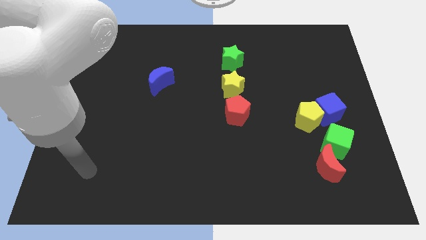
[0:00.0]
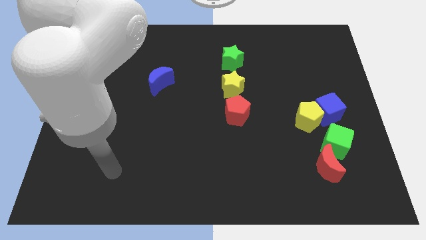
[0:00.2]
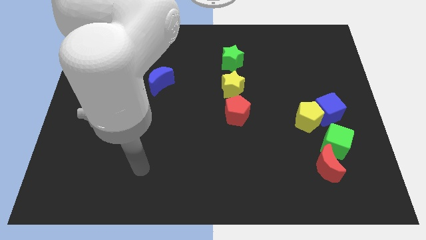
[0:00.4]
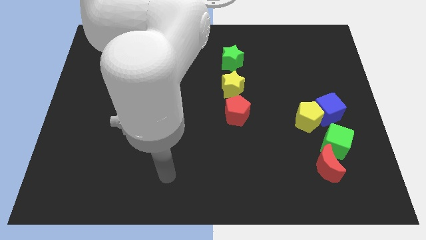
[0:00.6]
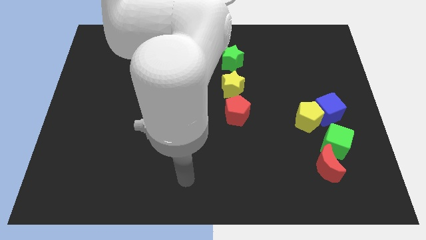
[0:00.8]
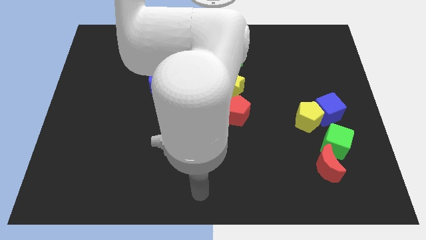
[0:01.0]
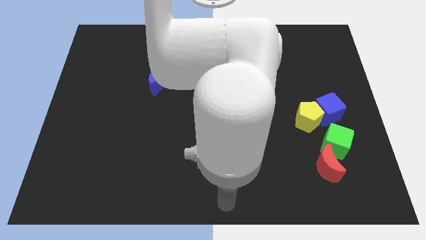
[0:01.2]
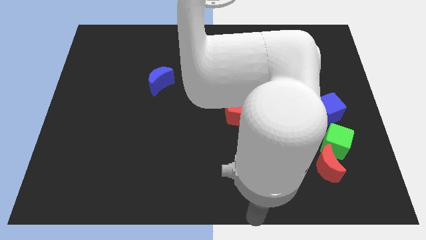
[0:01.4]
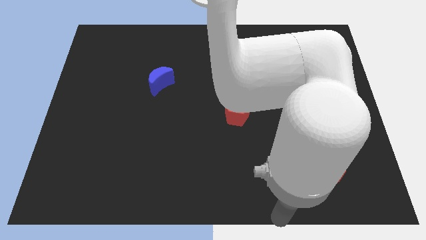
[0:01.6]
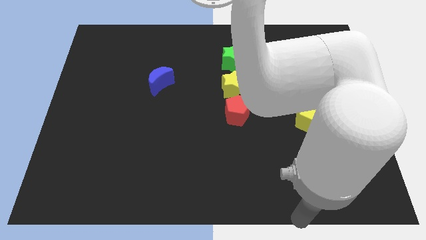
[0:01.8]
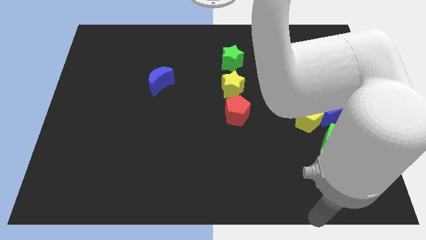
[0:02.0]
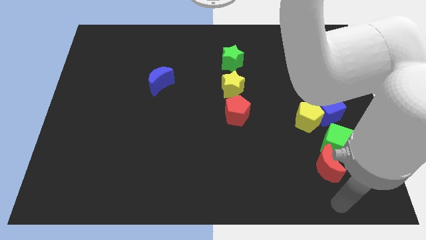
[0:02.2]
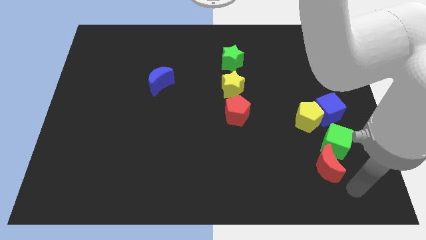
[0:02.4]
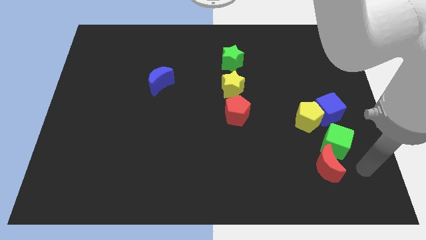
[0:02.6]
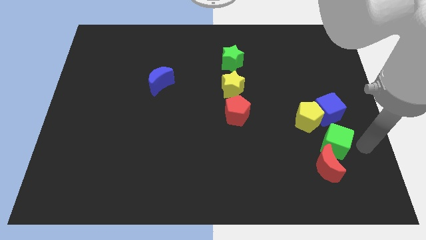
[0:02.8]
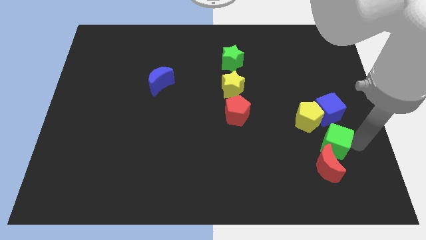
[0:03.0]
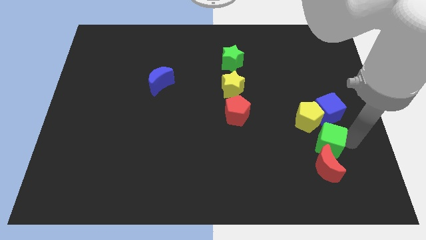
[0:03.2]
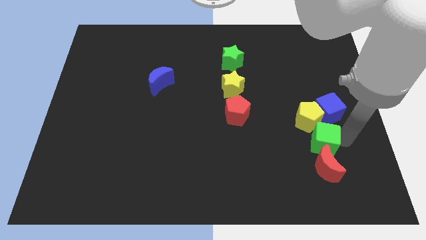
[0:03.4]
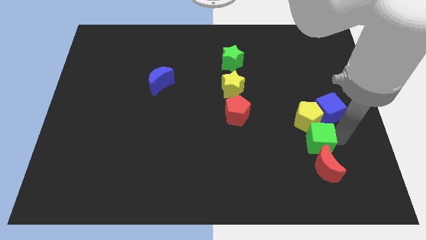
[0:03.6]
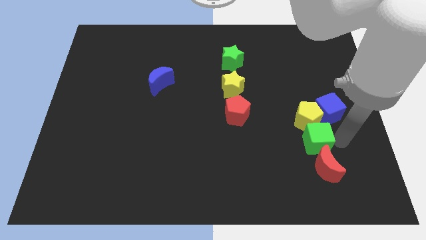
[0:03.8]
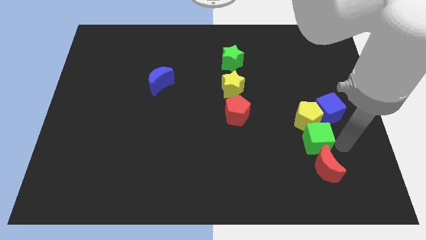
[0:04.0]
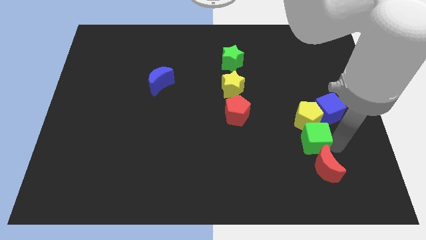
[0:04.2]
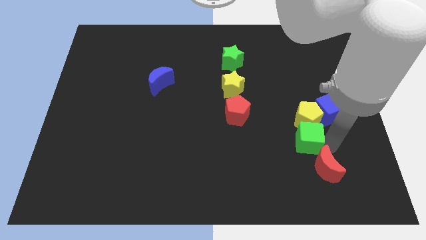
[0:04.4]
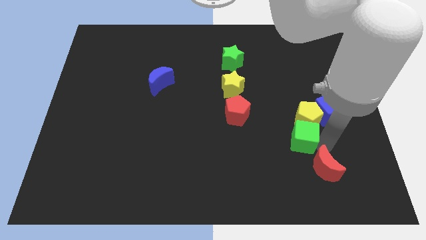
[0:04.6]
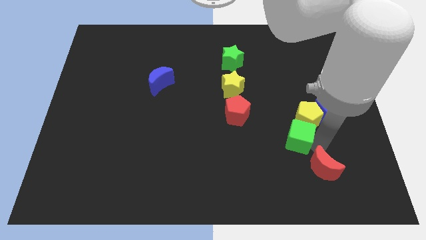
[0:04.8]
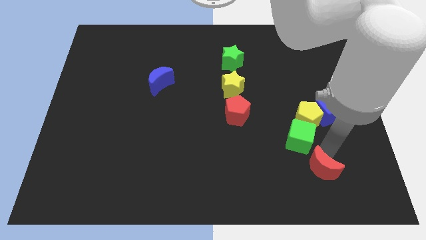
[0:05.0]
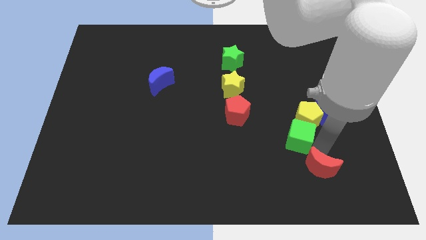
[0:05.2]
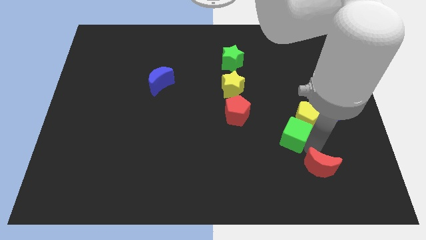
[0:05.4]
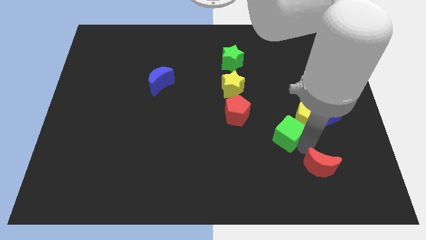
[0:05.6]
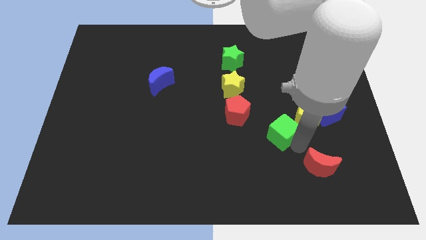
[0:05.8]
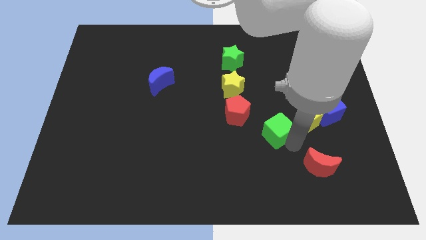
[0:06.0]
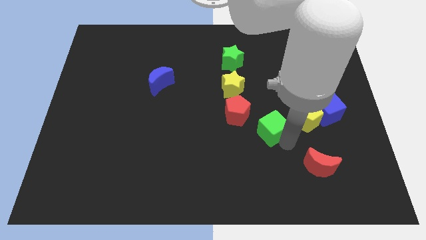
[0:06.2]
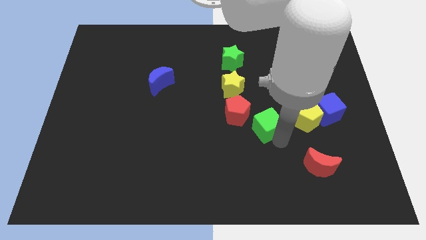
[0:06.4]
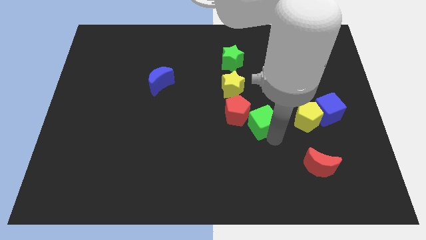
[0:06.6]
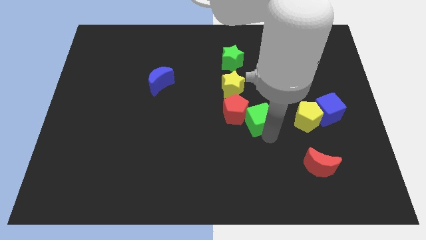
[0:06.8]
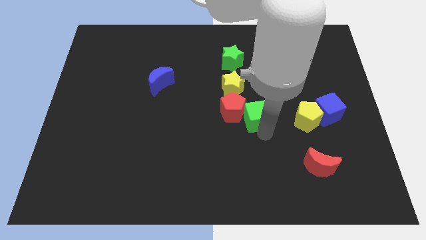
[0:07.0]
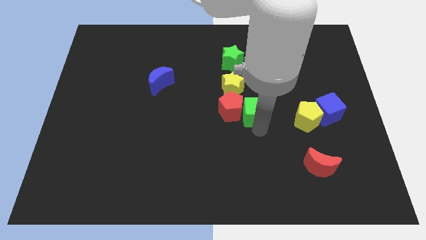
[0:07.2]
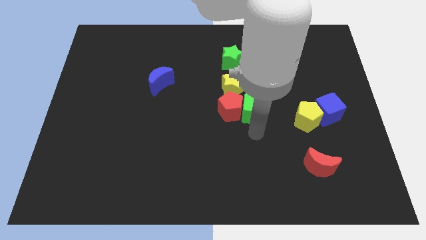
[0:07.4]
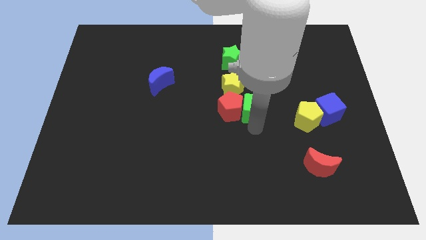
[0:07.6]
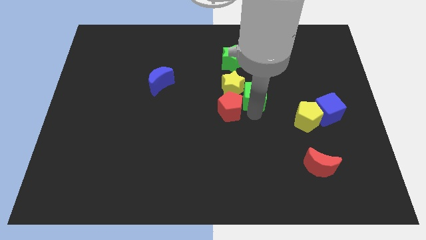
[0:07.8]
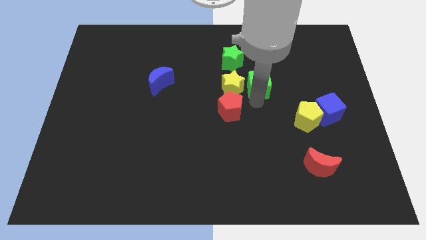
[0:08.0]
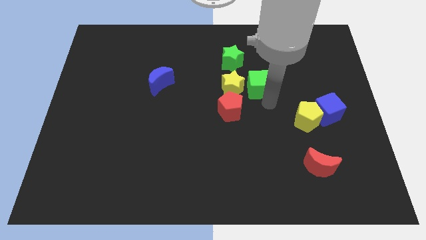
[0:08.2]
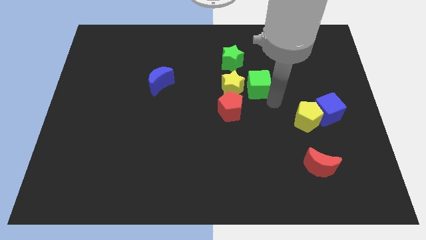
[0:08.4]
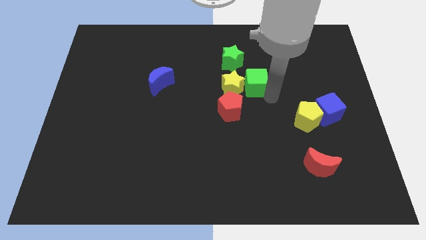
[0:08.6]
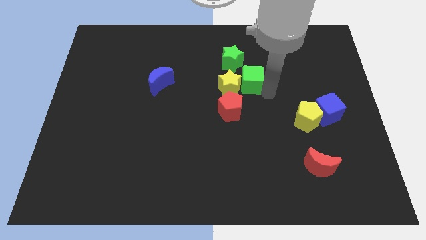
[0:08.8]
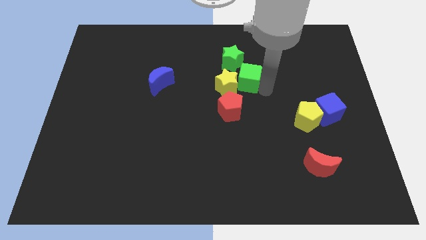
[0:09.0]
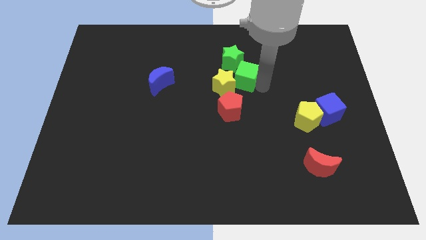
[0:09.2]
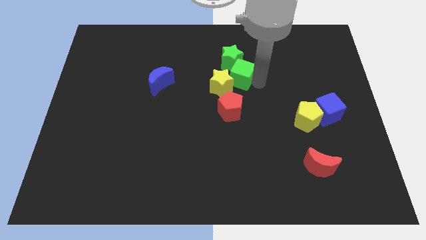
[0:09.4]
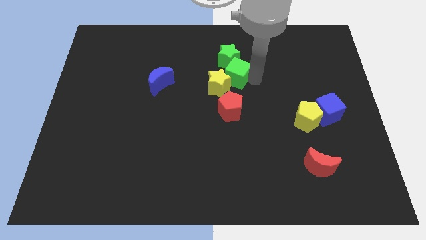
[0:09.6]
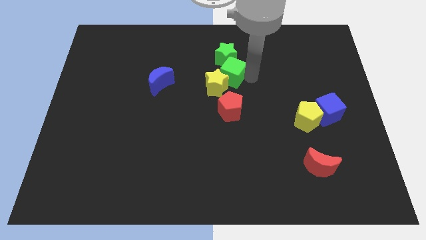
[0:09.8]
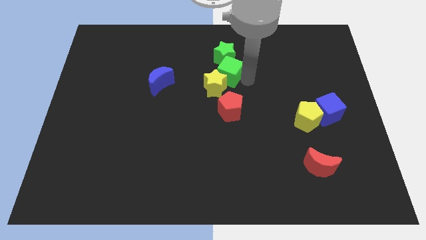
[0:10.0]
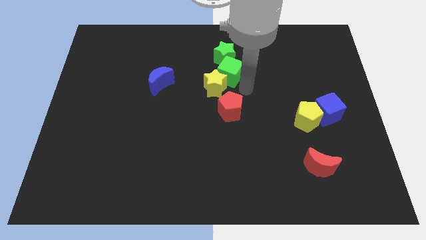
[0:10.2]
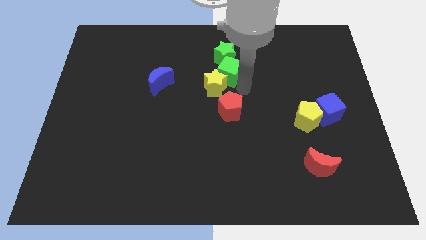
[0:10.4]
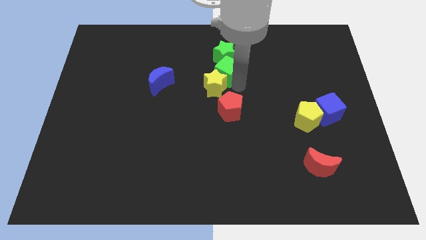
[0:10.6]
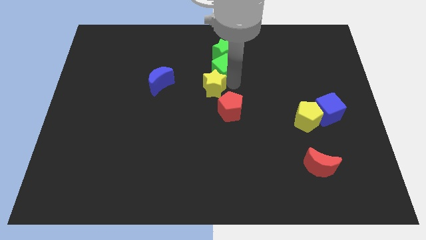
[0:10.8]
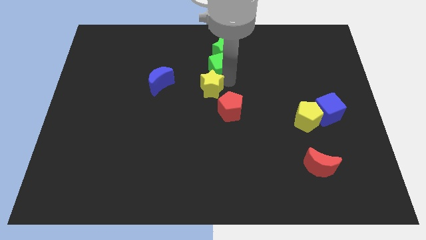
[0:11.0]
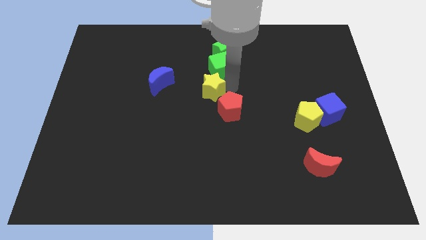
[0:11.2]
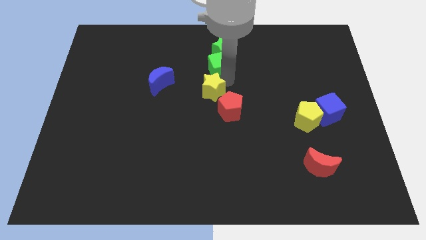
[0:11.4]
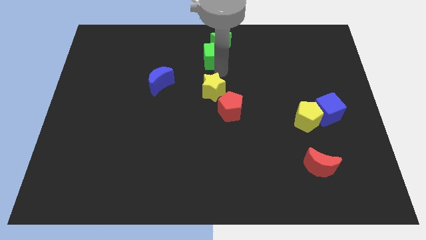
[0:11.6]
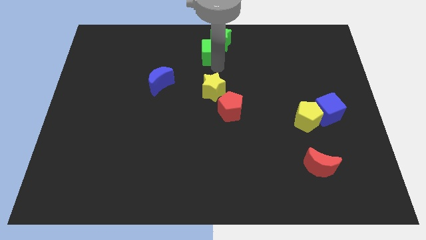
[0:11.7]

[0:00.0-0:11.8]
move the green cube to the top

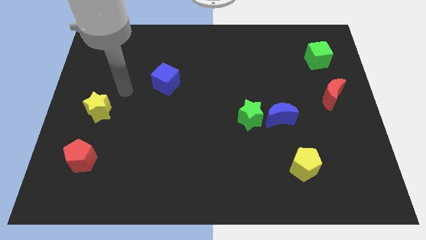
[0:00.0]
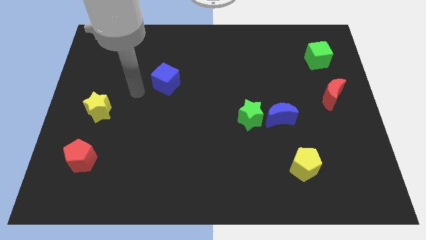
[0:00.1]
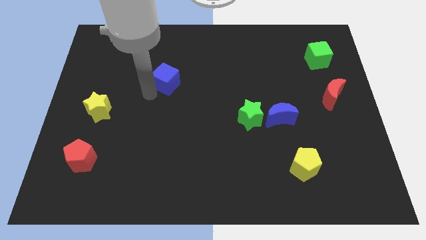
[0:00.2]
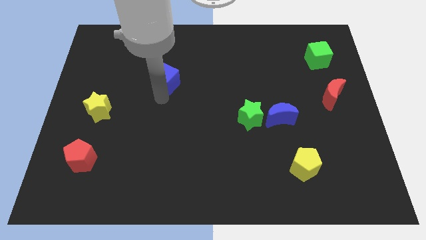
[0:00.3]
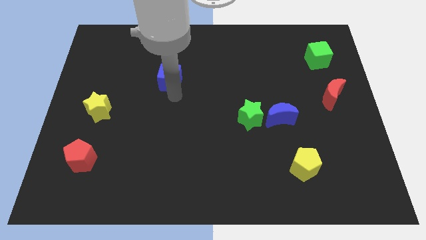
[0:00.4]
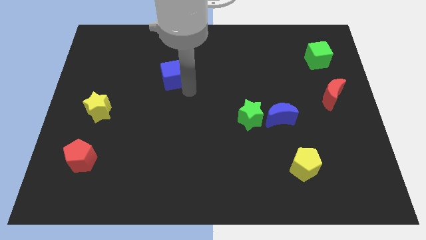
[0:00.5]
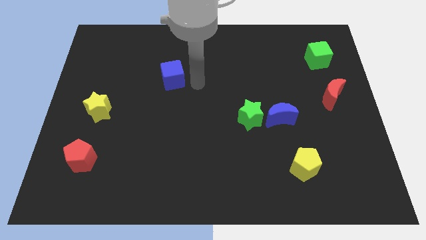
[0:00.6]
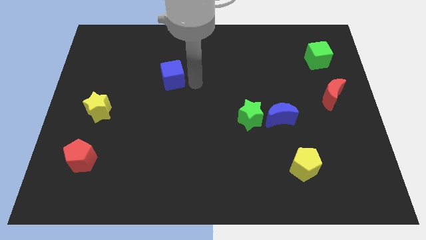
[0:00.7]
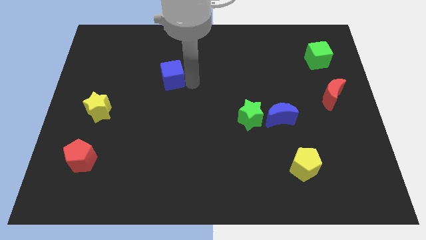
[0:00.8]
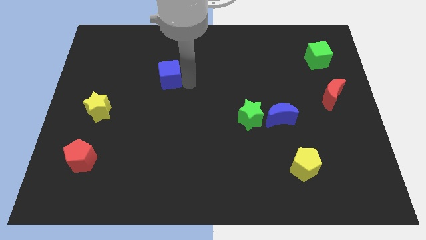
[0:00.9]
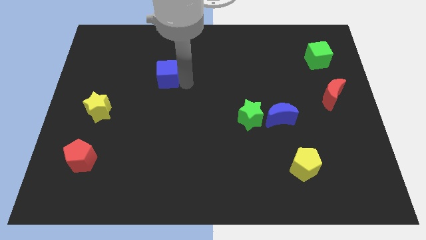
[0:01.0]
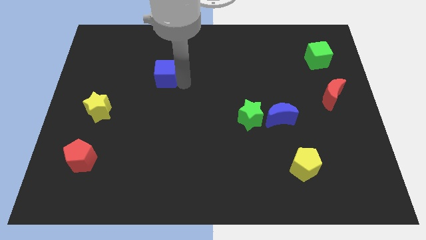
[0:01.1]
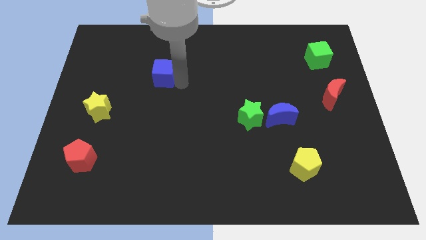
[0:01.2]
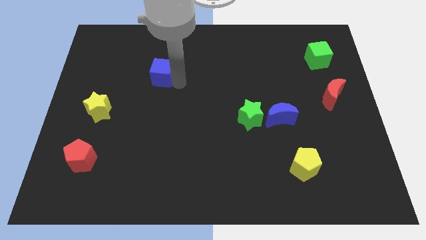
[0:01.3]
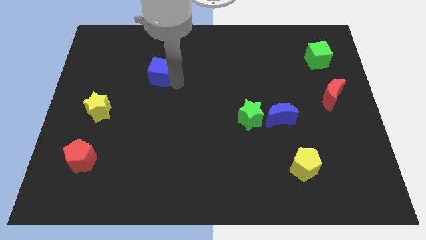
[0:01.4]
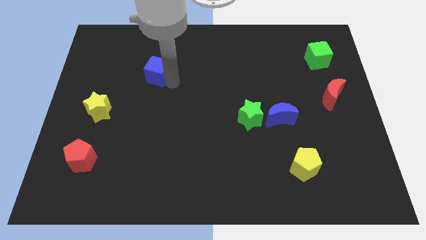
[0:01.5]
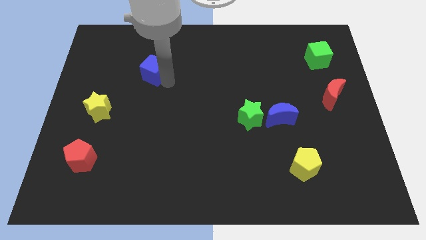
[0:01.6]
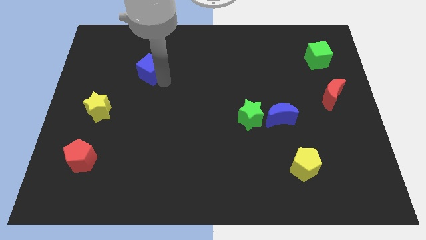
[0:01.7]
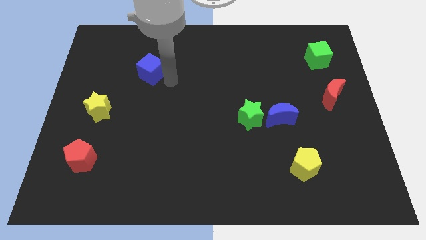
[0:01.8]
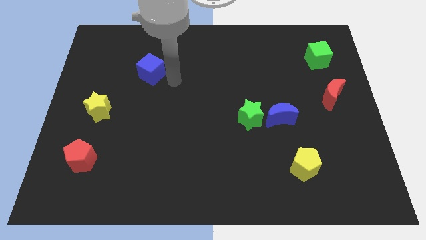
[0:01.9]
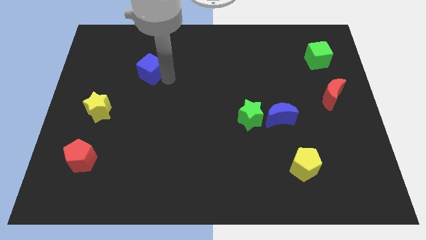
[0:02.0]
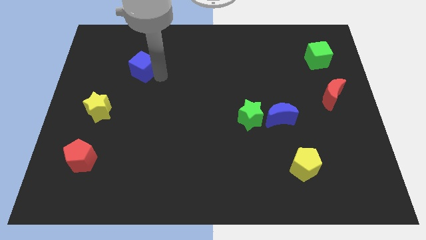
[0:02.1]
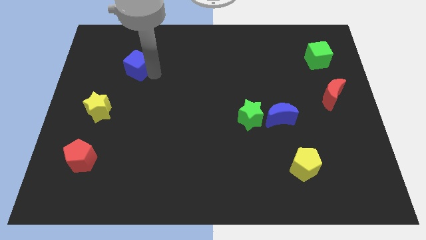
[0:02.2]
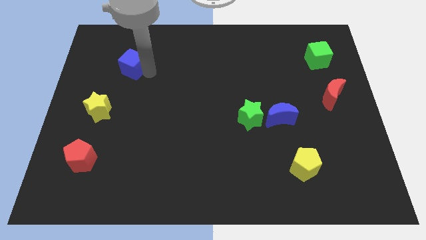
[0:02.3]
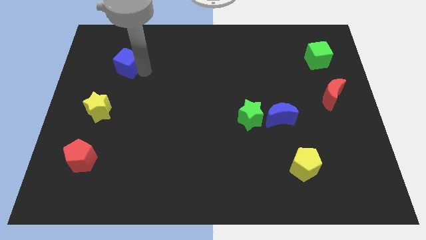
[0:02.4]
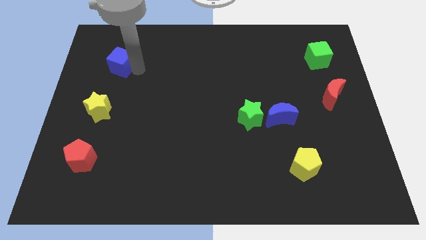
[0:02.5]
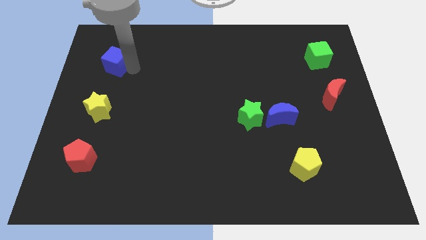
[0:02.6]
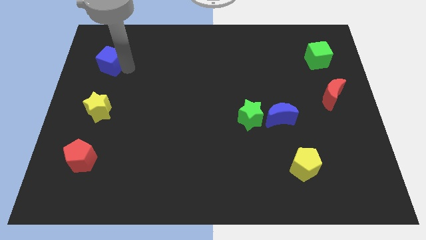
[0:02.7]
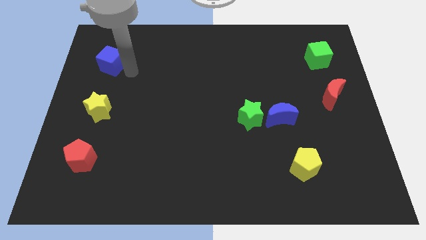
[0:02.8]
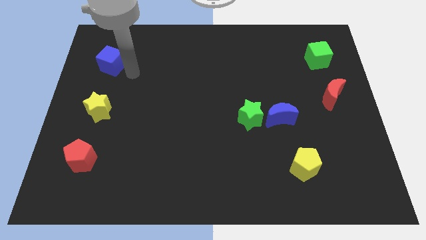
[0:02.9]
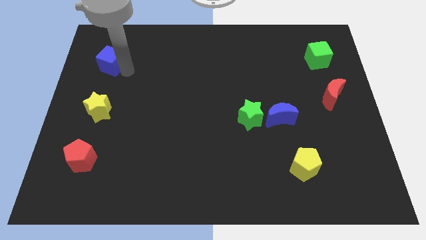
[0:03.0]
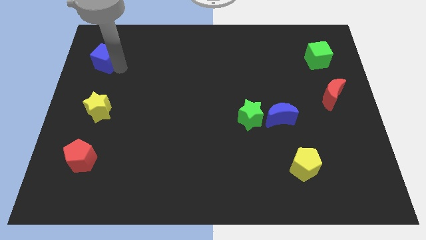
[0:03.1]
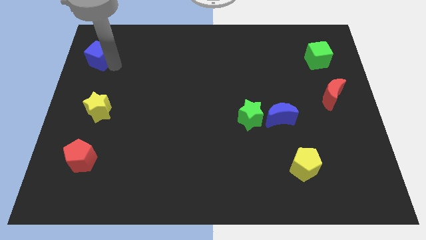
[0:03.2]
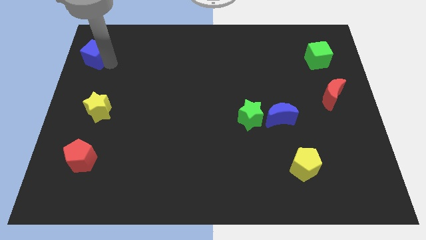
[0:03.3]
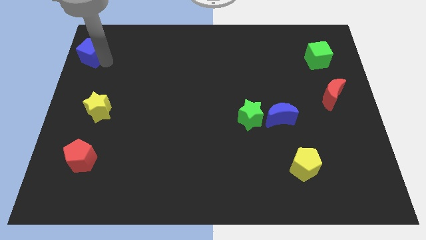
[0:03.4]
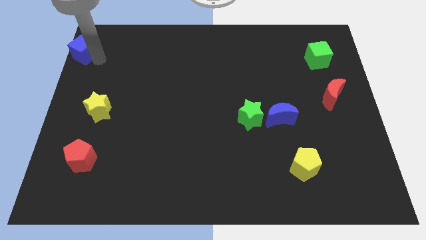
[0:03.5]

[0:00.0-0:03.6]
move the blue cube to the upper left corner
